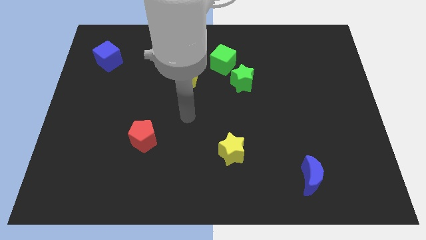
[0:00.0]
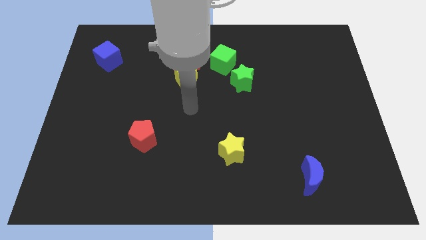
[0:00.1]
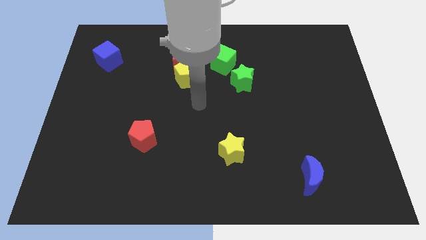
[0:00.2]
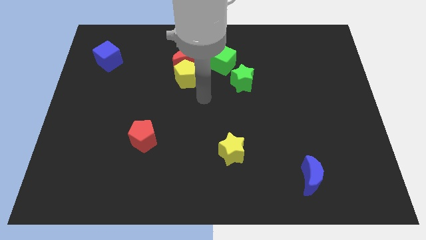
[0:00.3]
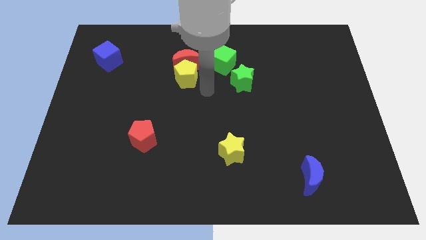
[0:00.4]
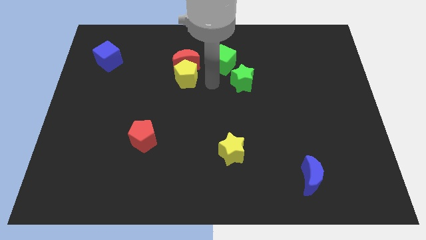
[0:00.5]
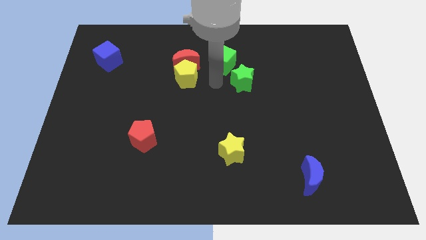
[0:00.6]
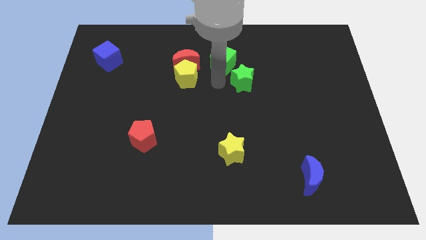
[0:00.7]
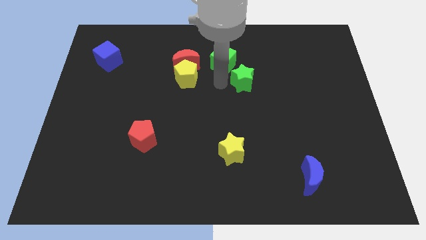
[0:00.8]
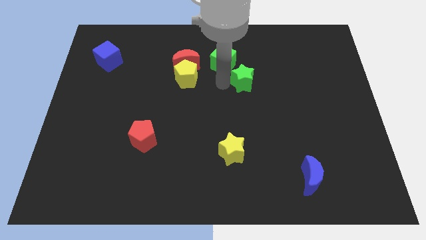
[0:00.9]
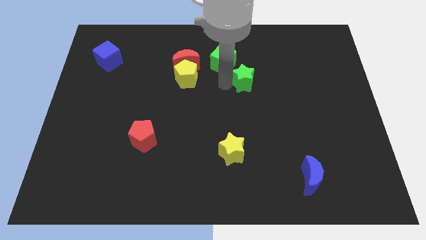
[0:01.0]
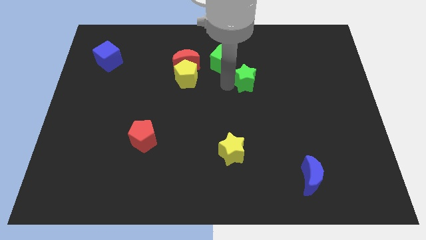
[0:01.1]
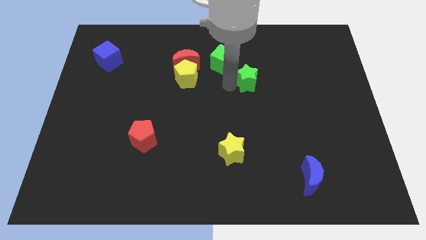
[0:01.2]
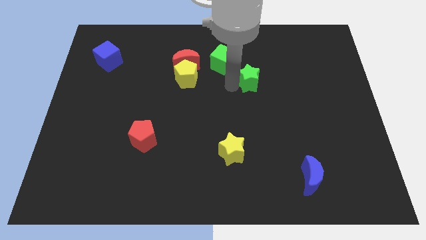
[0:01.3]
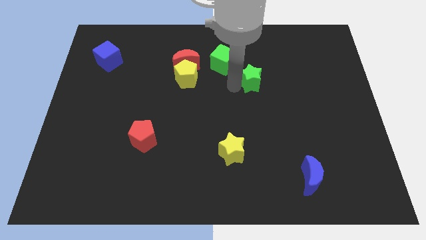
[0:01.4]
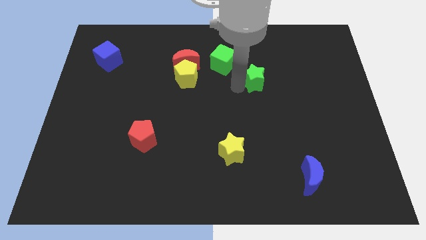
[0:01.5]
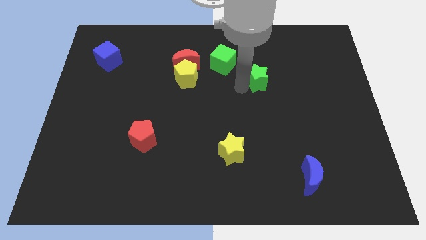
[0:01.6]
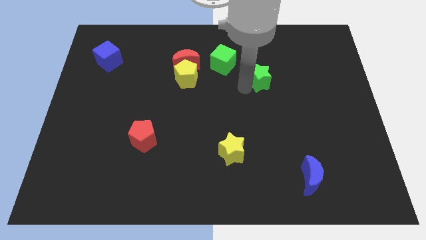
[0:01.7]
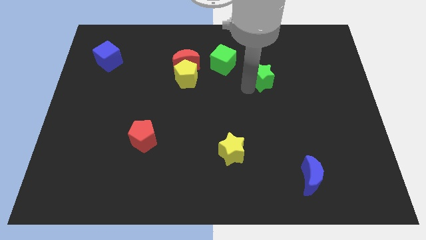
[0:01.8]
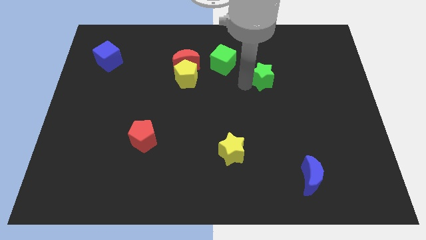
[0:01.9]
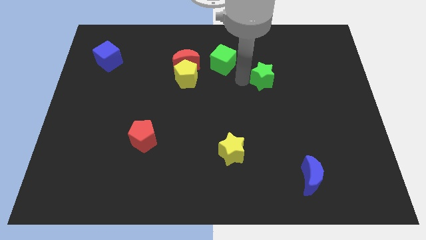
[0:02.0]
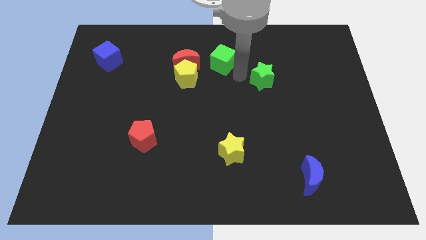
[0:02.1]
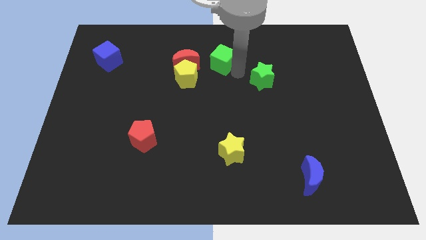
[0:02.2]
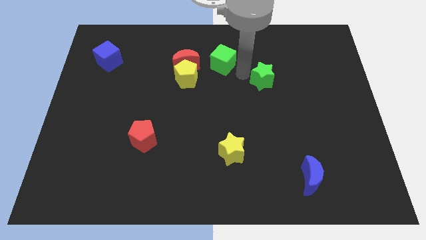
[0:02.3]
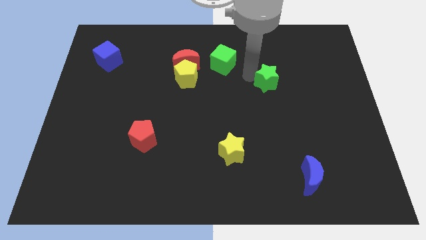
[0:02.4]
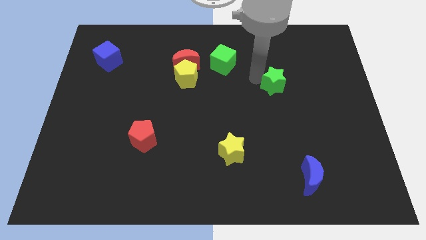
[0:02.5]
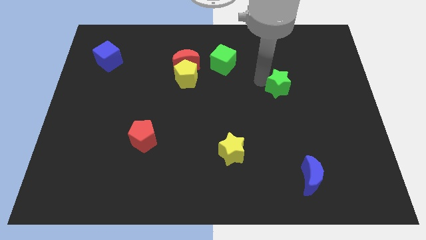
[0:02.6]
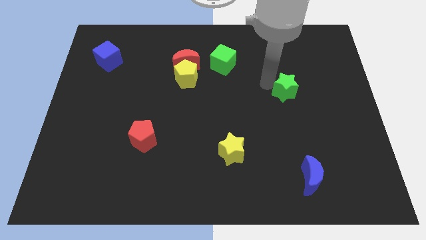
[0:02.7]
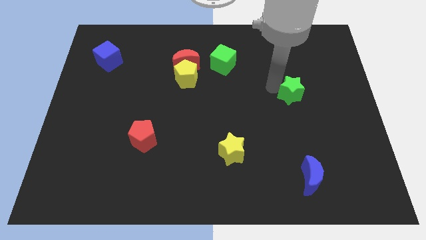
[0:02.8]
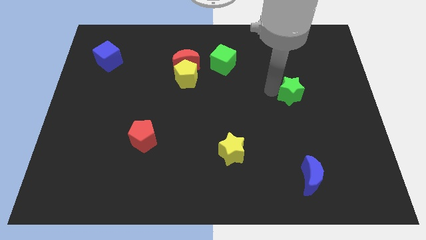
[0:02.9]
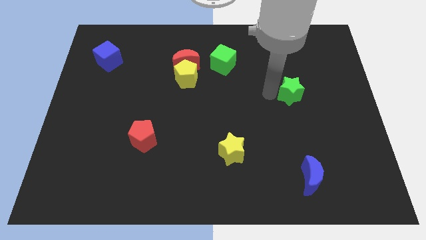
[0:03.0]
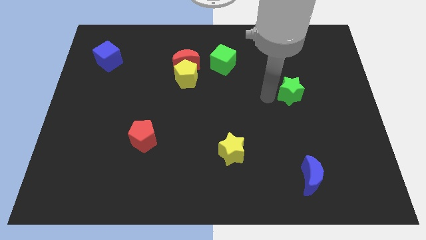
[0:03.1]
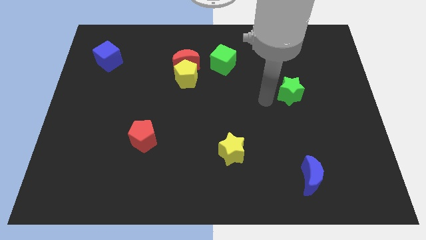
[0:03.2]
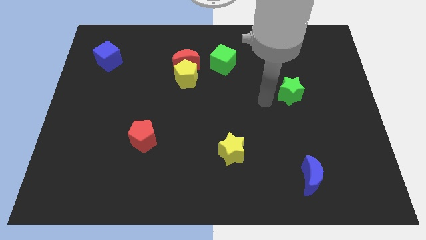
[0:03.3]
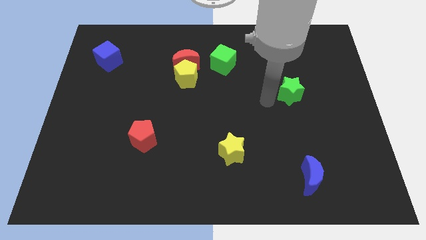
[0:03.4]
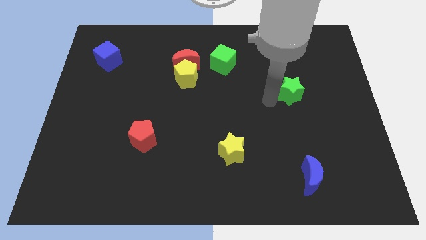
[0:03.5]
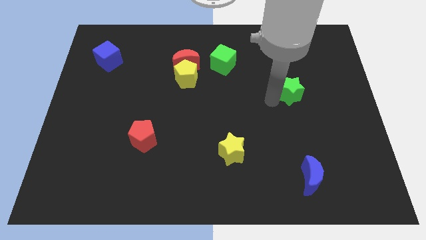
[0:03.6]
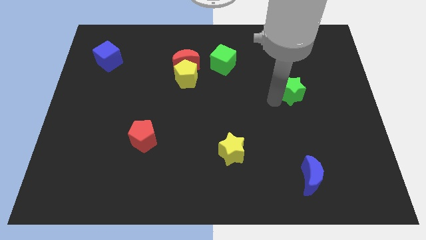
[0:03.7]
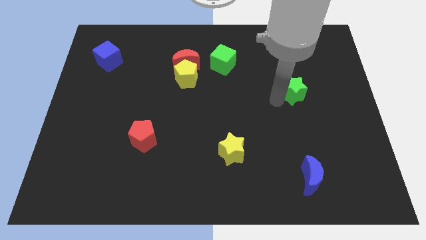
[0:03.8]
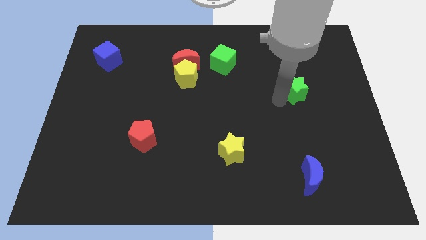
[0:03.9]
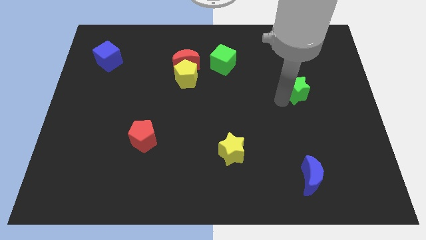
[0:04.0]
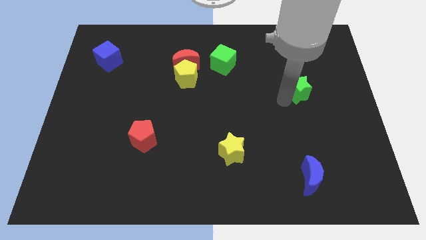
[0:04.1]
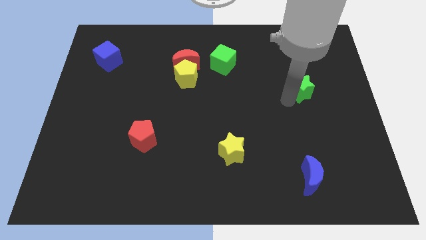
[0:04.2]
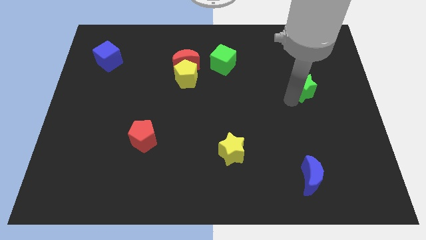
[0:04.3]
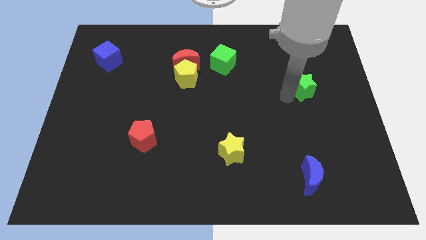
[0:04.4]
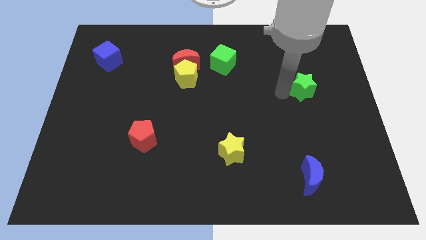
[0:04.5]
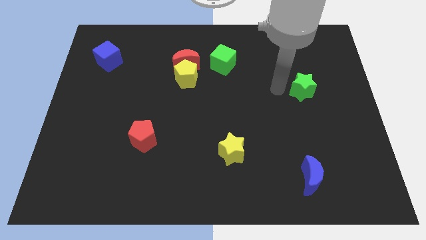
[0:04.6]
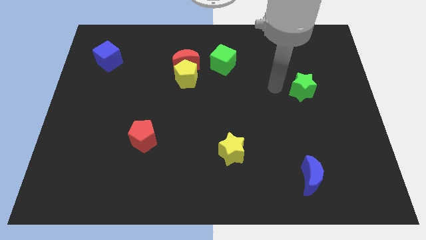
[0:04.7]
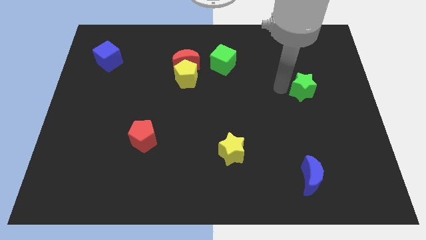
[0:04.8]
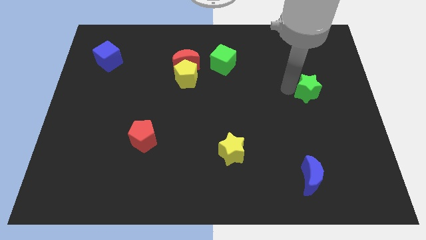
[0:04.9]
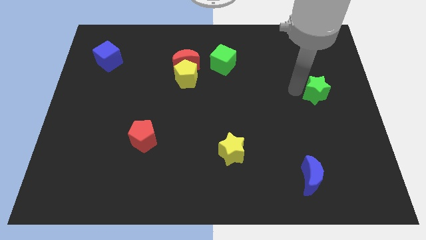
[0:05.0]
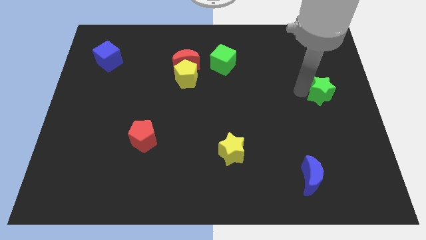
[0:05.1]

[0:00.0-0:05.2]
move the green star to the center right
